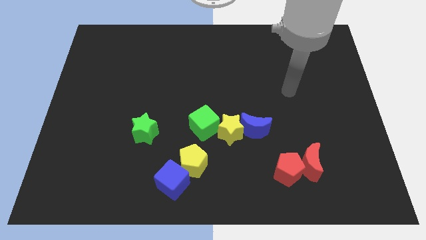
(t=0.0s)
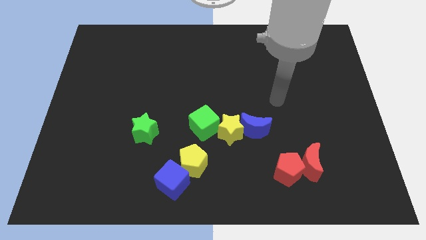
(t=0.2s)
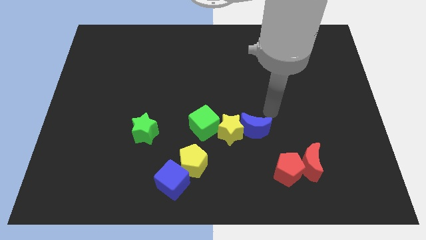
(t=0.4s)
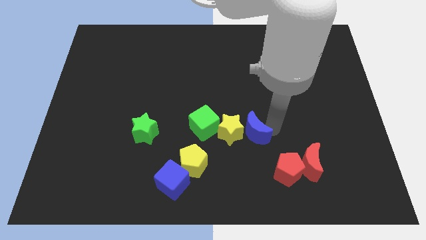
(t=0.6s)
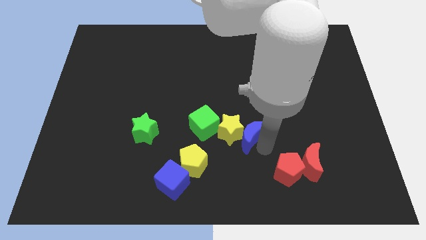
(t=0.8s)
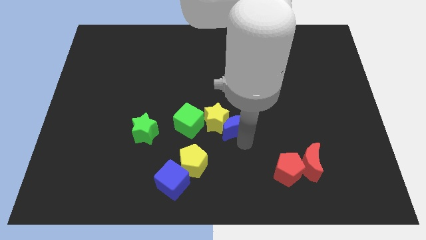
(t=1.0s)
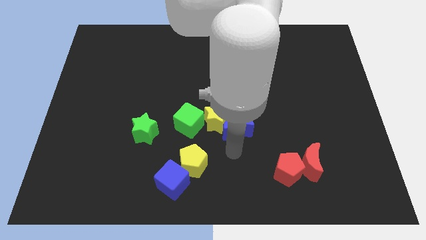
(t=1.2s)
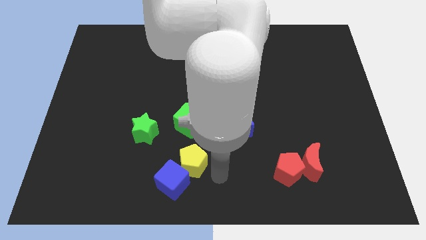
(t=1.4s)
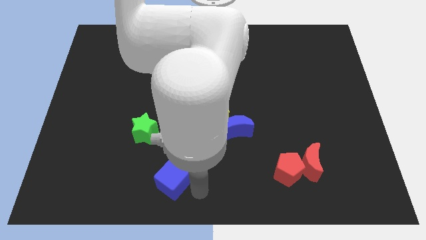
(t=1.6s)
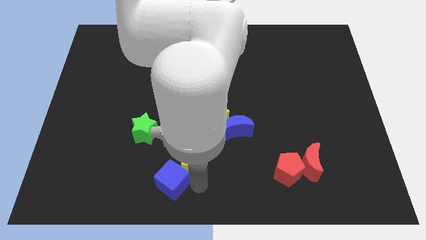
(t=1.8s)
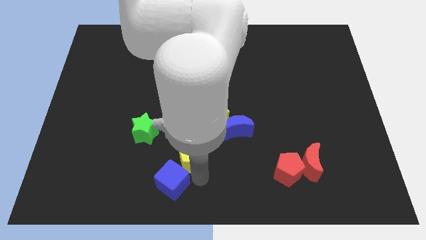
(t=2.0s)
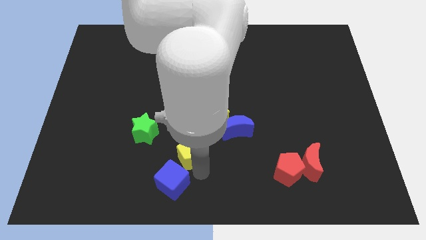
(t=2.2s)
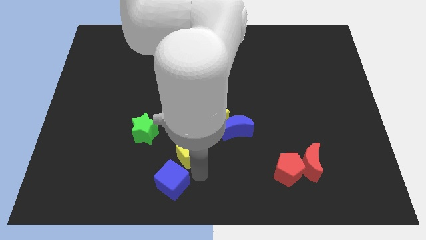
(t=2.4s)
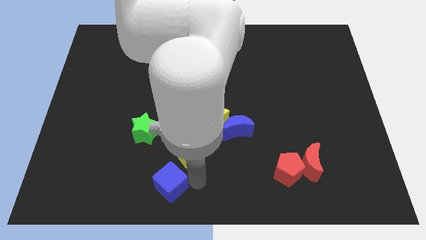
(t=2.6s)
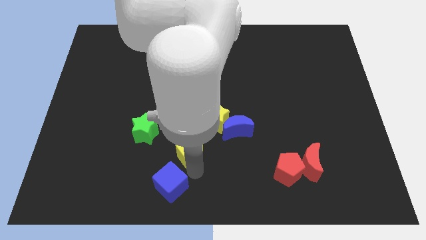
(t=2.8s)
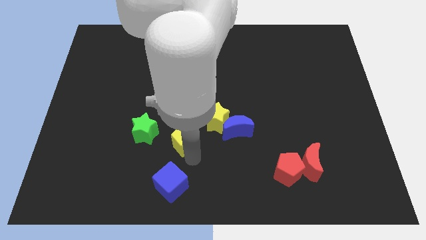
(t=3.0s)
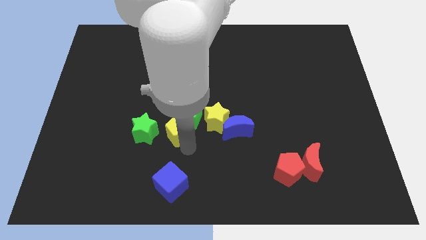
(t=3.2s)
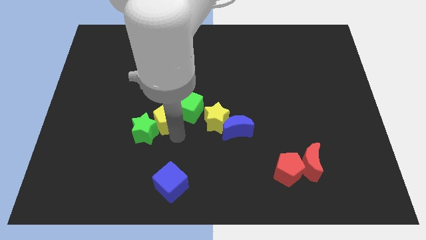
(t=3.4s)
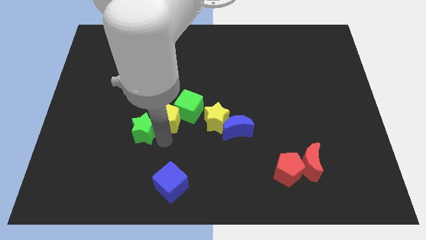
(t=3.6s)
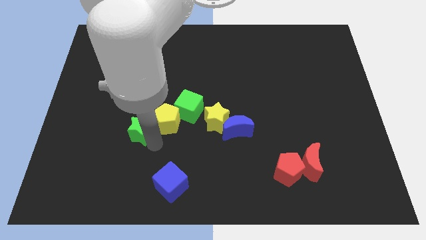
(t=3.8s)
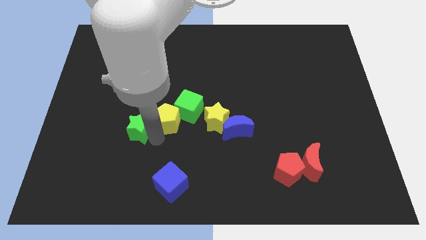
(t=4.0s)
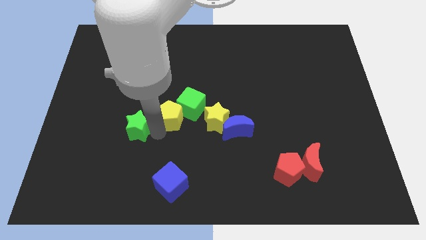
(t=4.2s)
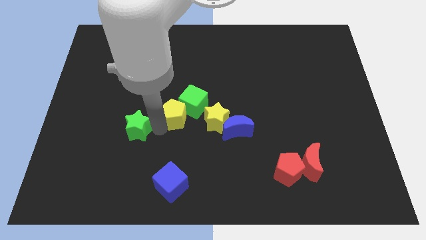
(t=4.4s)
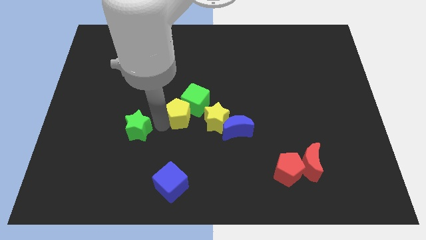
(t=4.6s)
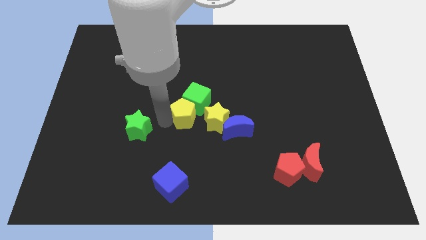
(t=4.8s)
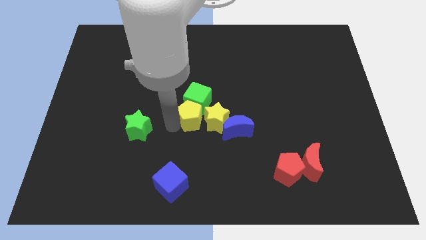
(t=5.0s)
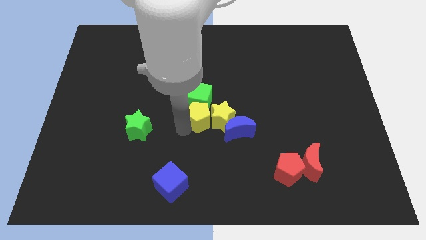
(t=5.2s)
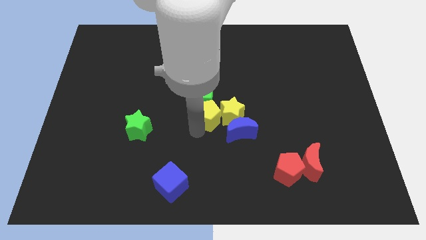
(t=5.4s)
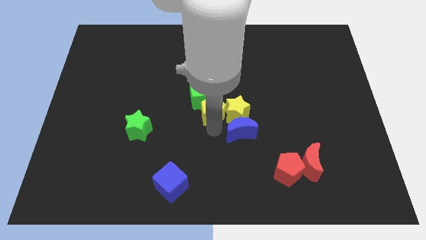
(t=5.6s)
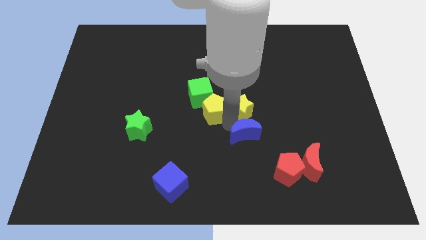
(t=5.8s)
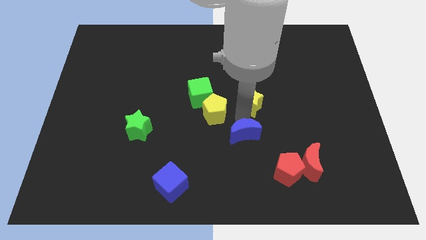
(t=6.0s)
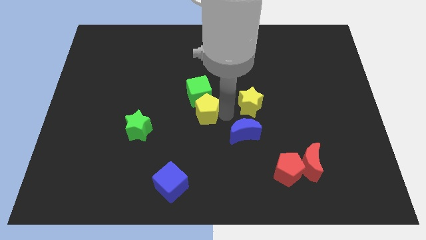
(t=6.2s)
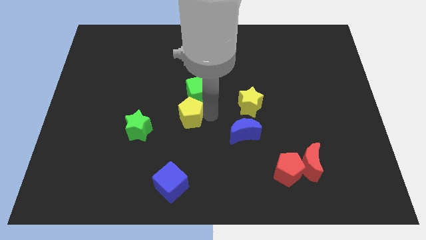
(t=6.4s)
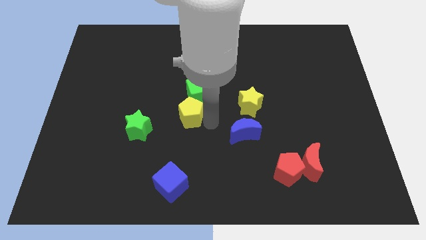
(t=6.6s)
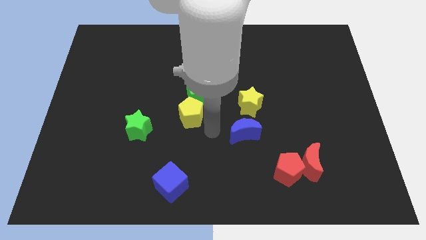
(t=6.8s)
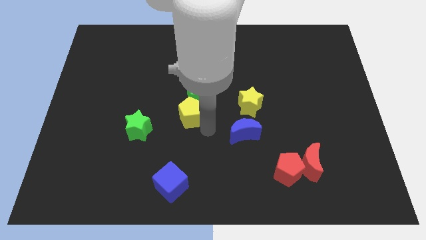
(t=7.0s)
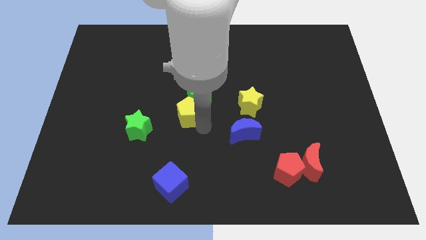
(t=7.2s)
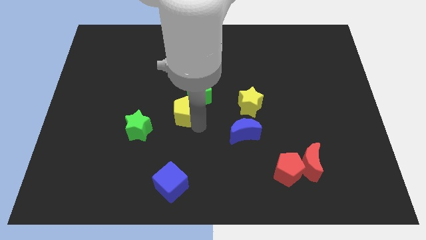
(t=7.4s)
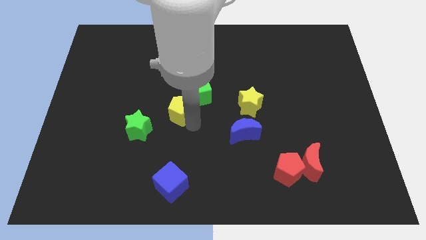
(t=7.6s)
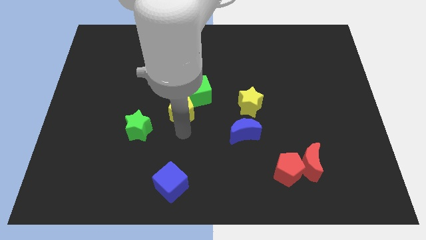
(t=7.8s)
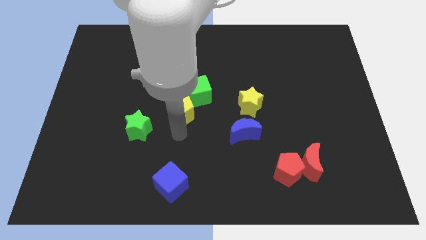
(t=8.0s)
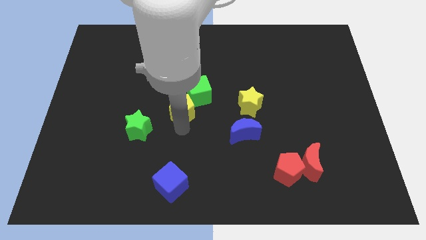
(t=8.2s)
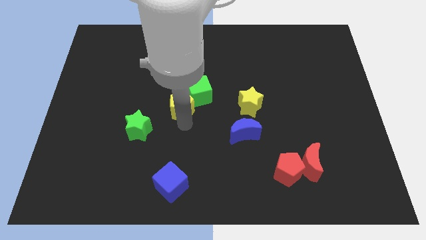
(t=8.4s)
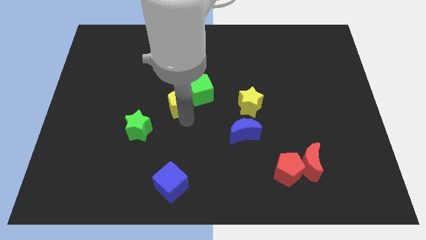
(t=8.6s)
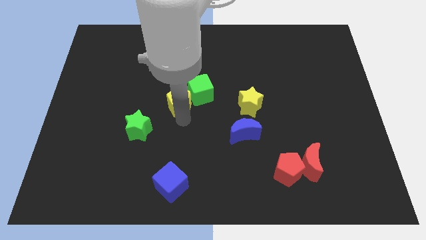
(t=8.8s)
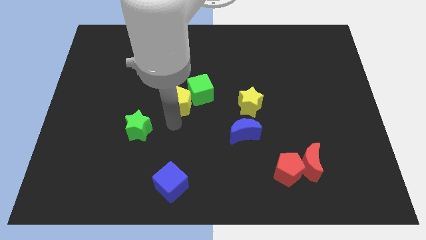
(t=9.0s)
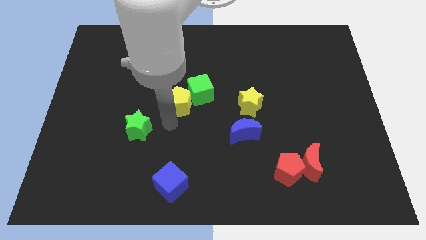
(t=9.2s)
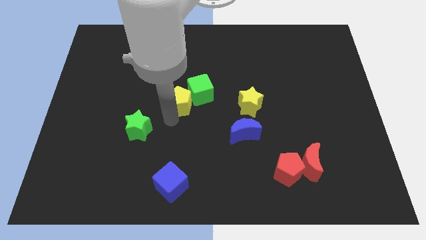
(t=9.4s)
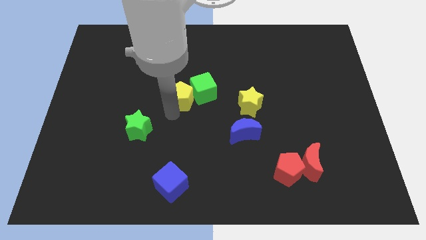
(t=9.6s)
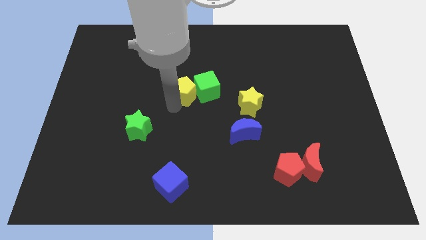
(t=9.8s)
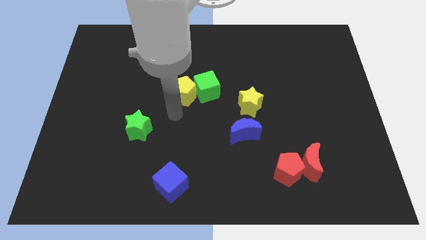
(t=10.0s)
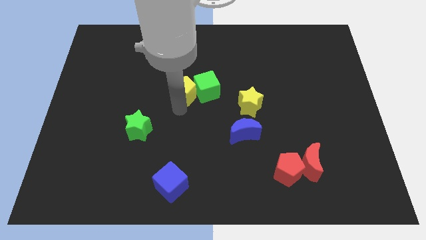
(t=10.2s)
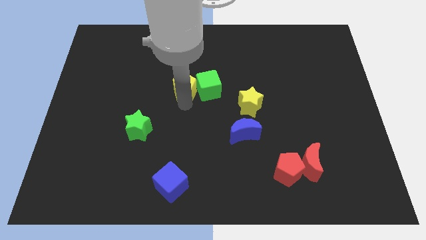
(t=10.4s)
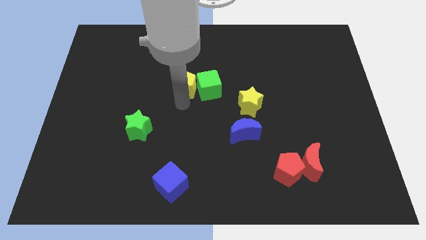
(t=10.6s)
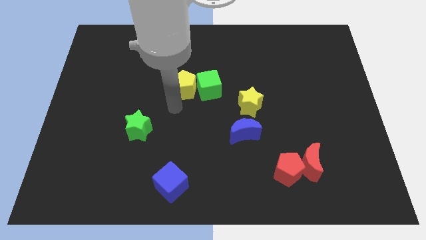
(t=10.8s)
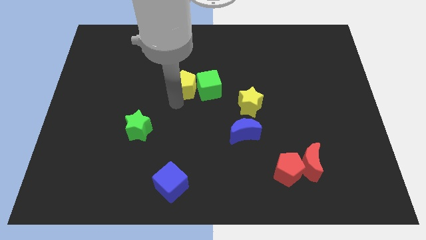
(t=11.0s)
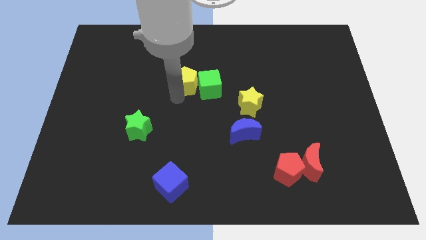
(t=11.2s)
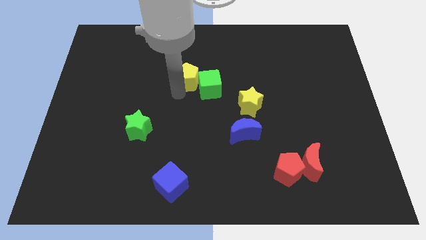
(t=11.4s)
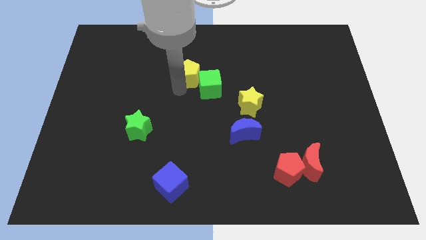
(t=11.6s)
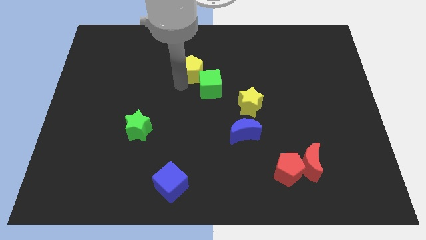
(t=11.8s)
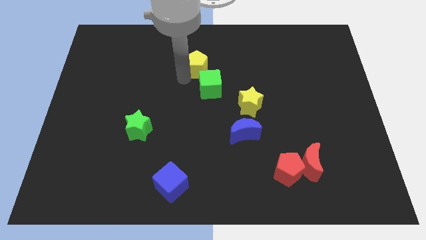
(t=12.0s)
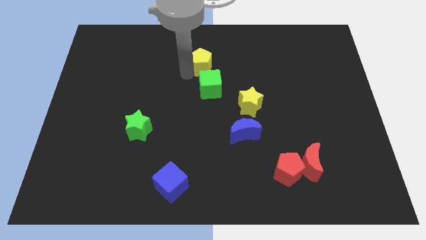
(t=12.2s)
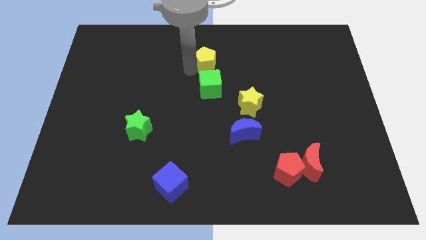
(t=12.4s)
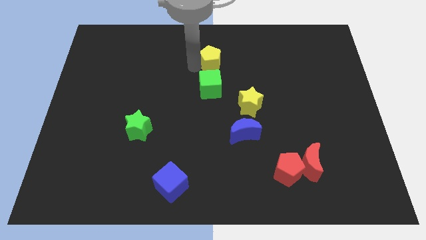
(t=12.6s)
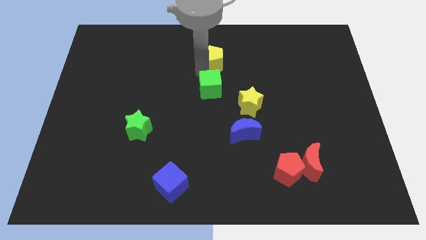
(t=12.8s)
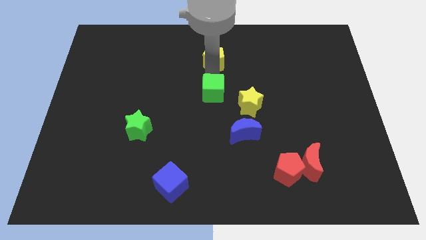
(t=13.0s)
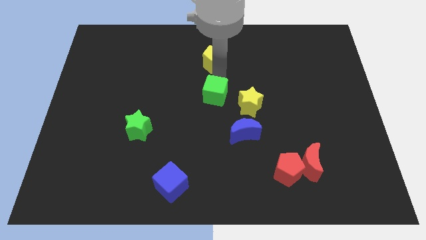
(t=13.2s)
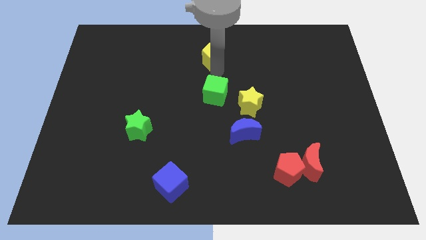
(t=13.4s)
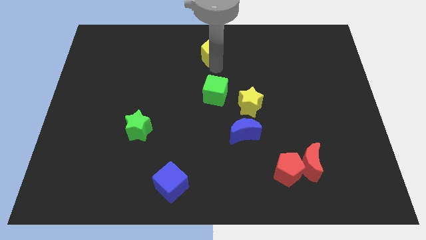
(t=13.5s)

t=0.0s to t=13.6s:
move the yellow pentagon to the top
